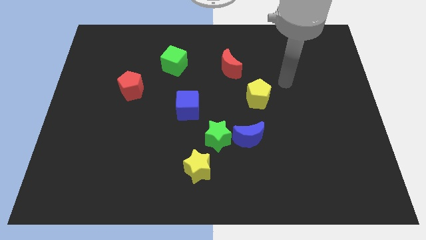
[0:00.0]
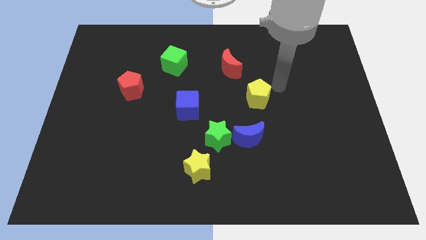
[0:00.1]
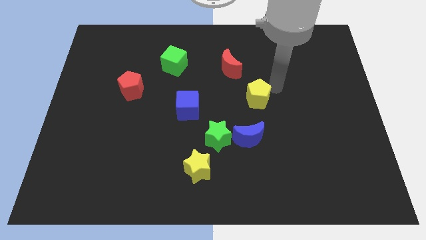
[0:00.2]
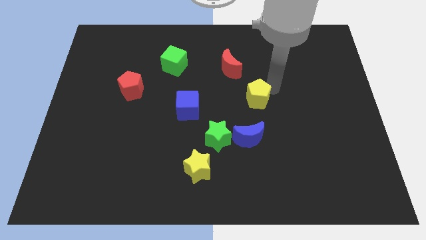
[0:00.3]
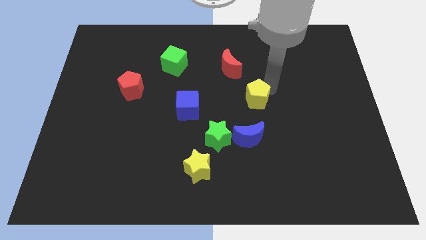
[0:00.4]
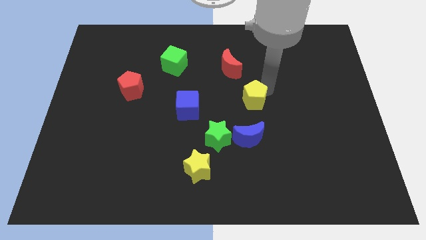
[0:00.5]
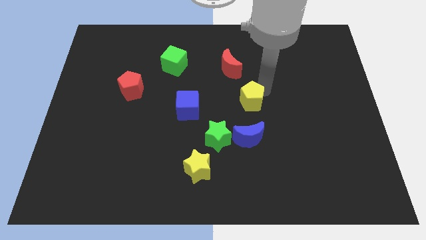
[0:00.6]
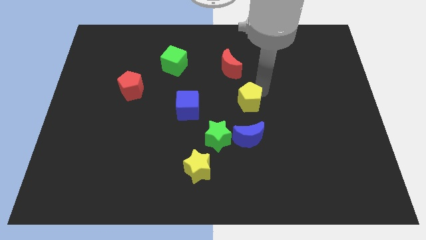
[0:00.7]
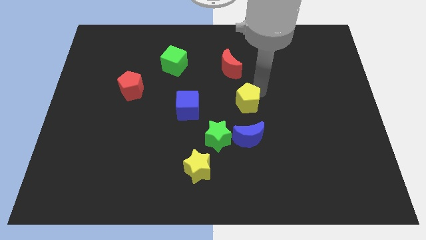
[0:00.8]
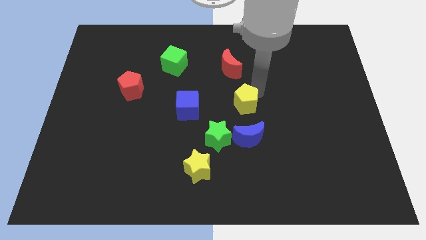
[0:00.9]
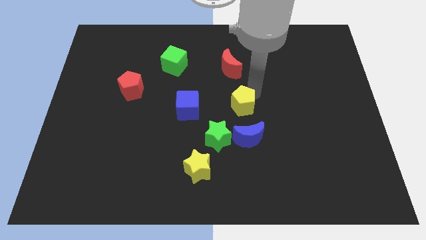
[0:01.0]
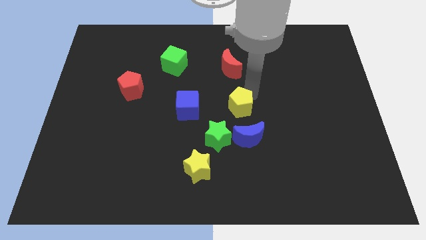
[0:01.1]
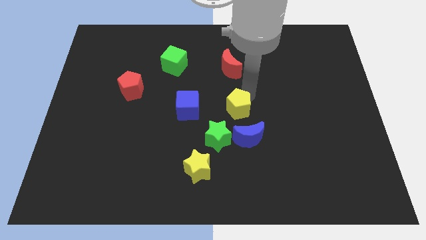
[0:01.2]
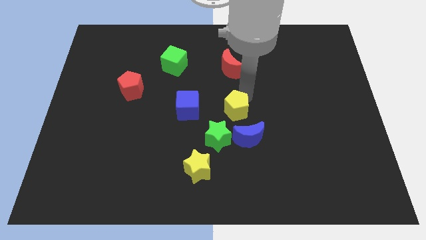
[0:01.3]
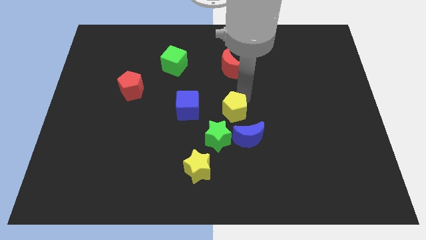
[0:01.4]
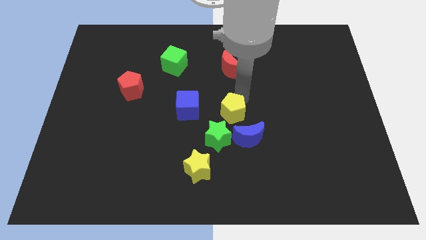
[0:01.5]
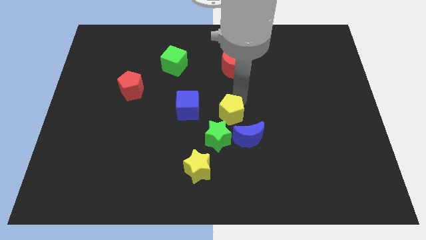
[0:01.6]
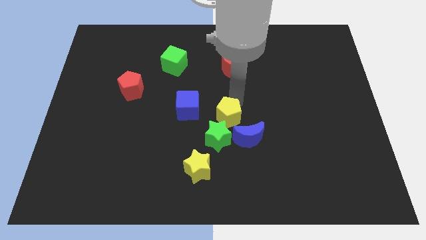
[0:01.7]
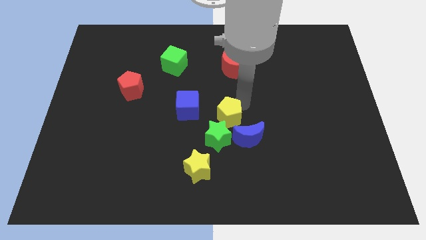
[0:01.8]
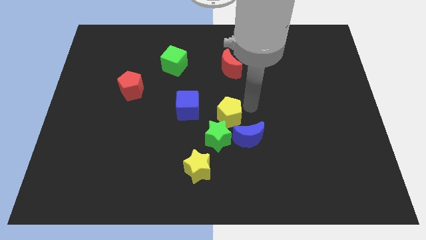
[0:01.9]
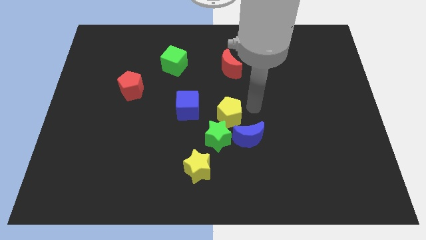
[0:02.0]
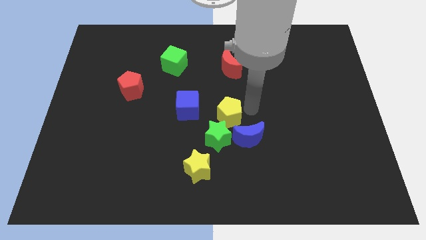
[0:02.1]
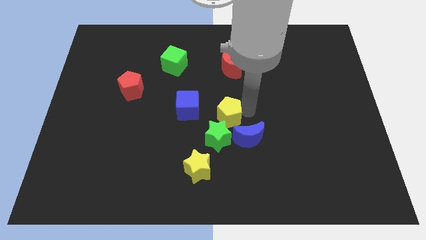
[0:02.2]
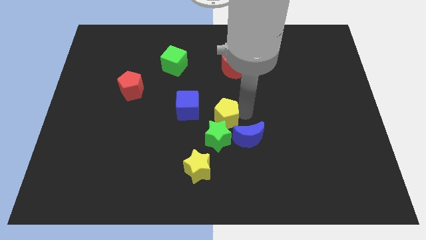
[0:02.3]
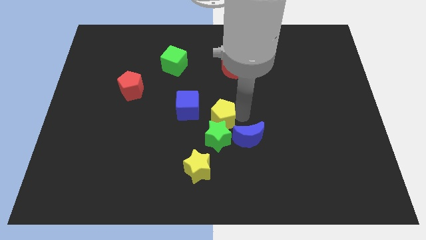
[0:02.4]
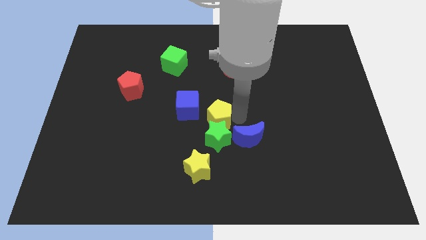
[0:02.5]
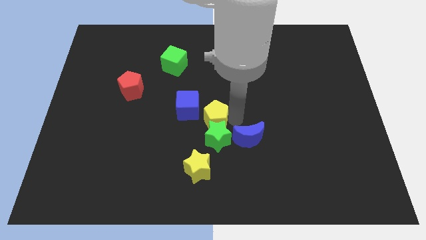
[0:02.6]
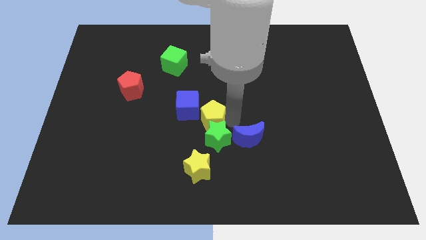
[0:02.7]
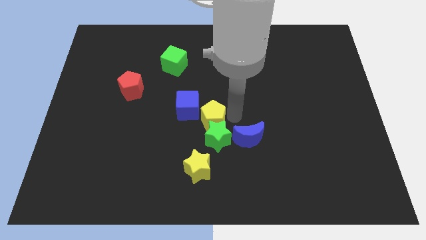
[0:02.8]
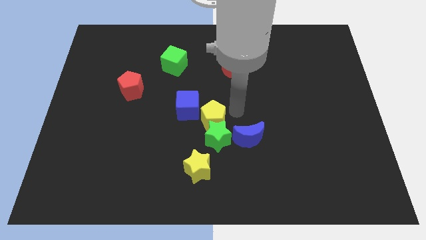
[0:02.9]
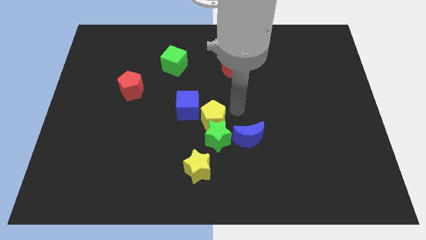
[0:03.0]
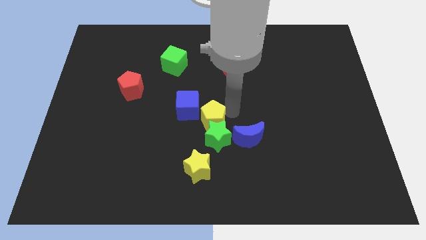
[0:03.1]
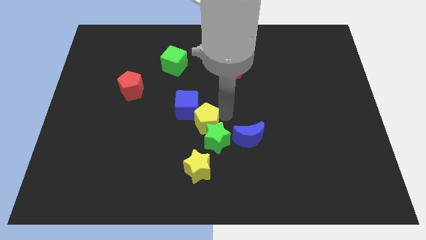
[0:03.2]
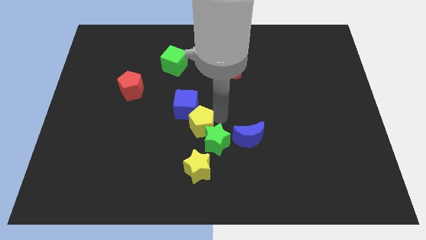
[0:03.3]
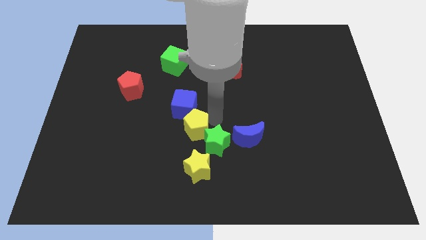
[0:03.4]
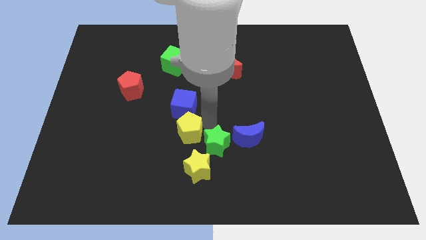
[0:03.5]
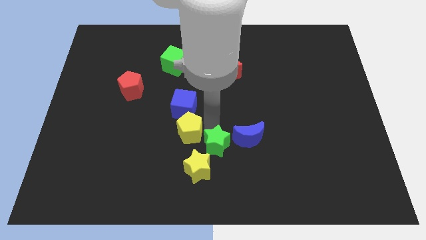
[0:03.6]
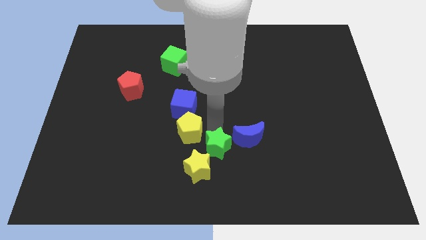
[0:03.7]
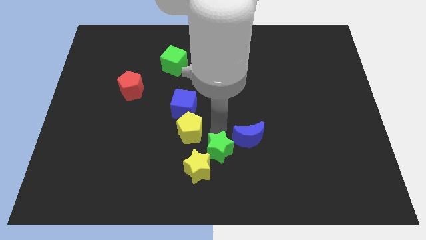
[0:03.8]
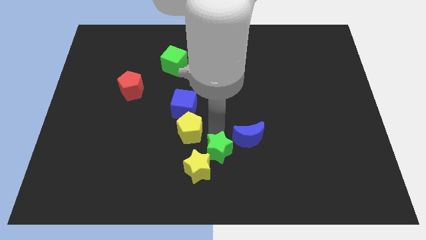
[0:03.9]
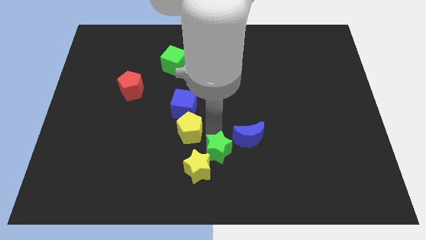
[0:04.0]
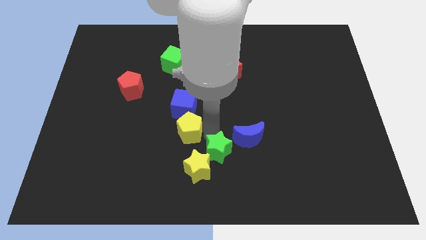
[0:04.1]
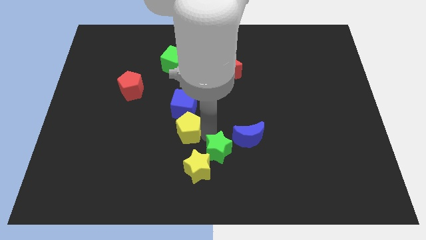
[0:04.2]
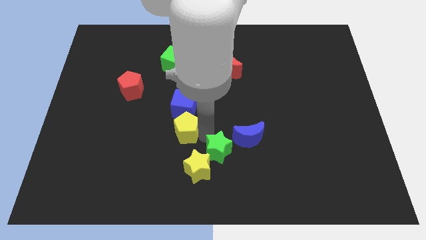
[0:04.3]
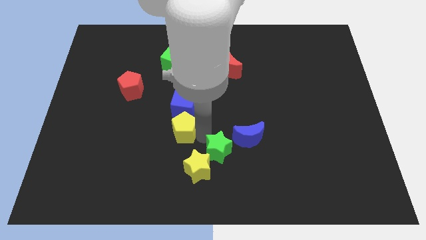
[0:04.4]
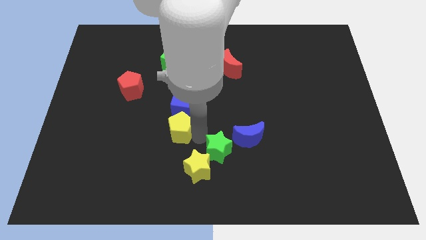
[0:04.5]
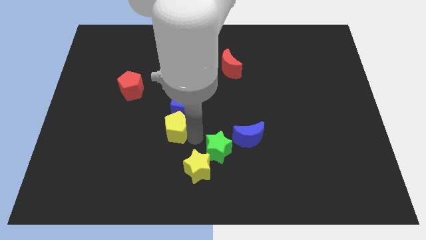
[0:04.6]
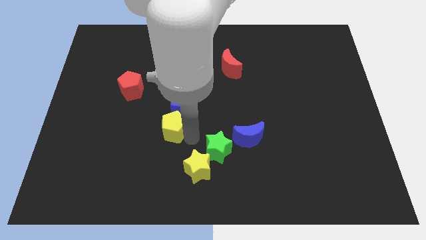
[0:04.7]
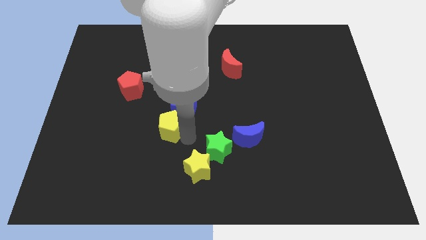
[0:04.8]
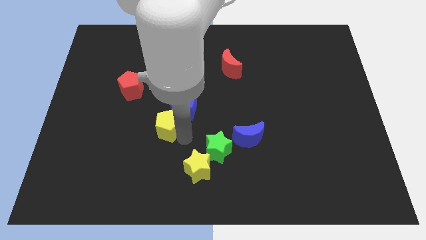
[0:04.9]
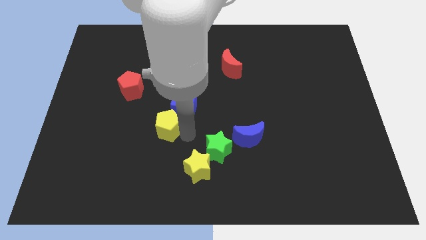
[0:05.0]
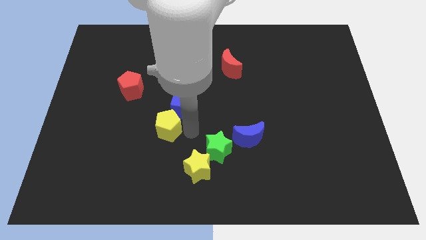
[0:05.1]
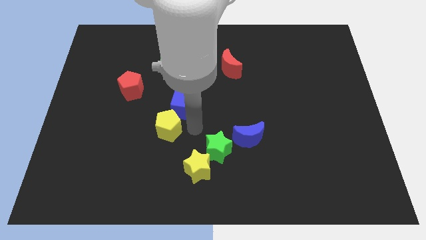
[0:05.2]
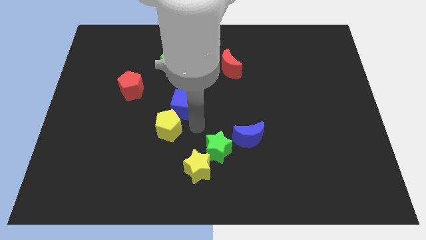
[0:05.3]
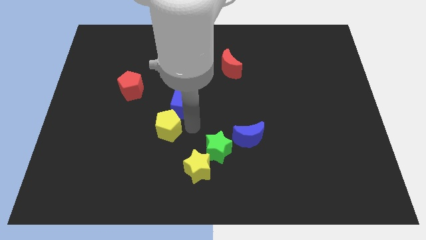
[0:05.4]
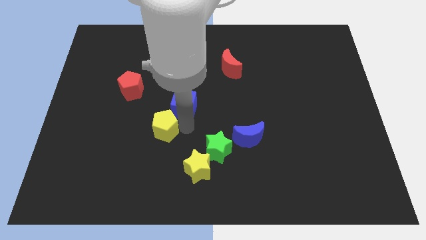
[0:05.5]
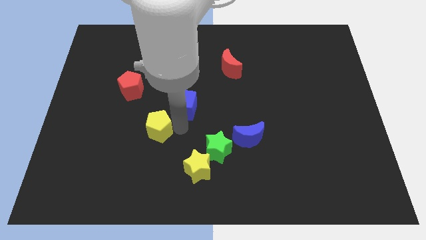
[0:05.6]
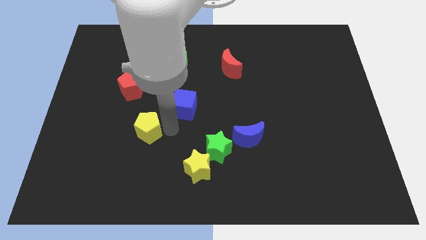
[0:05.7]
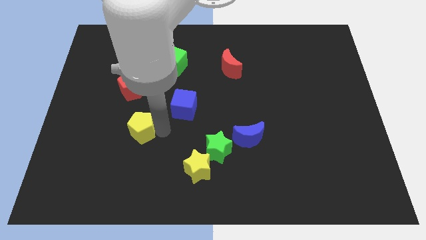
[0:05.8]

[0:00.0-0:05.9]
slide the yellow pentagon to the bottom of the red pentagon

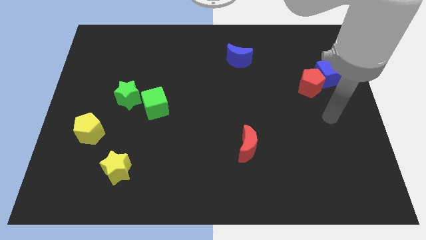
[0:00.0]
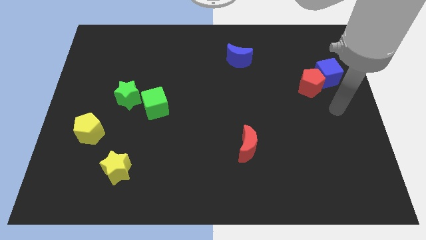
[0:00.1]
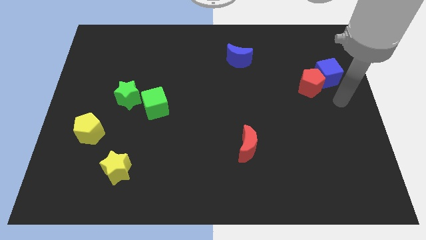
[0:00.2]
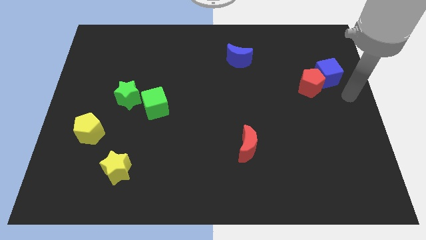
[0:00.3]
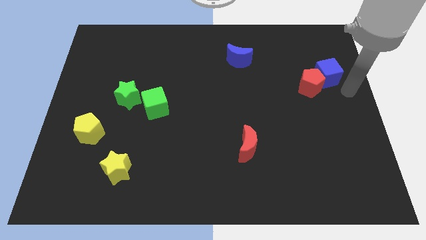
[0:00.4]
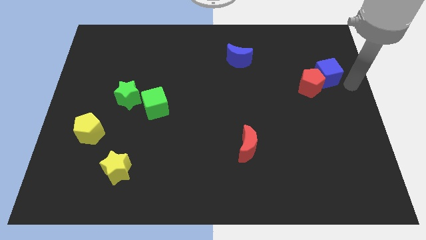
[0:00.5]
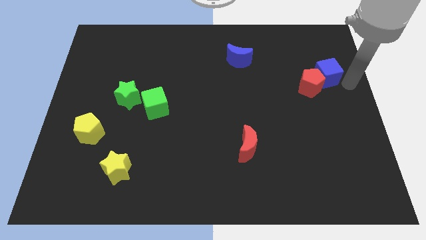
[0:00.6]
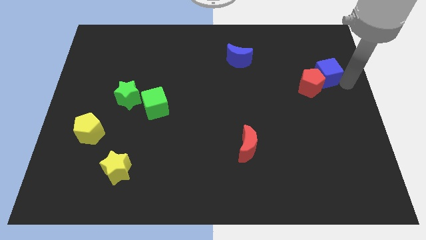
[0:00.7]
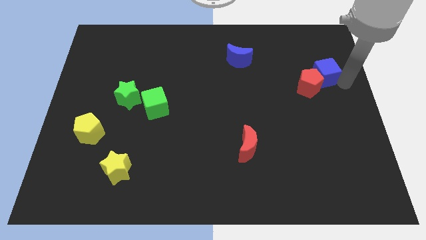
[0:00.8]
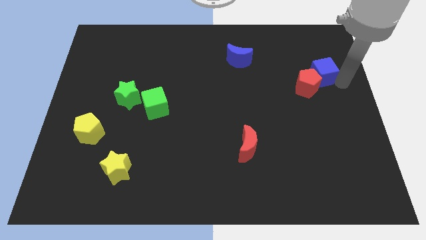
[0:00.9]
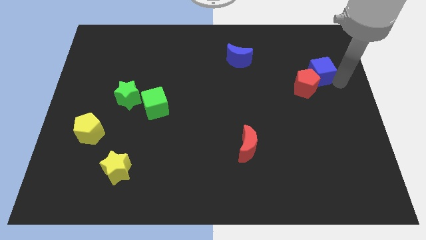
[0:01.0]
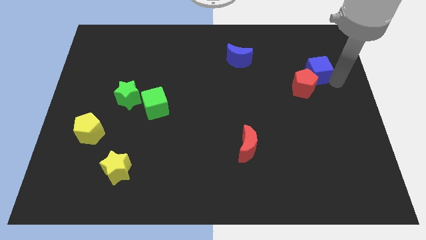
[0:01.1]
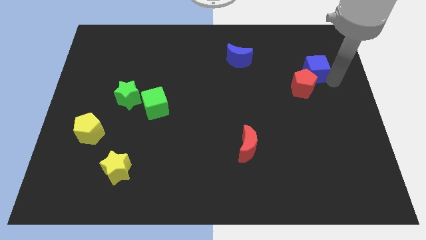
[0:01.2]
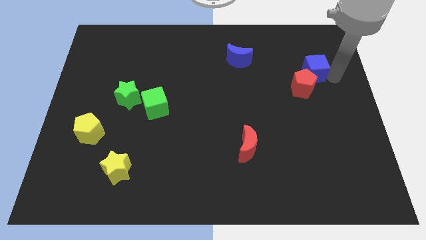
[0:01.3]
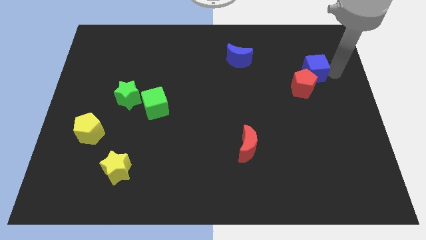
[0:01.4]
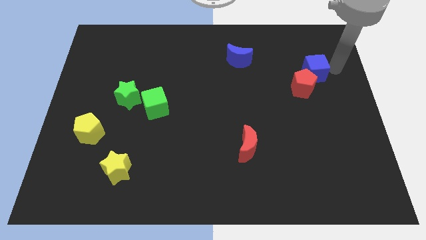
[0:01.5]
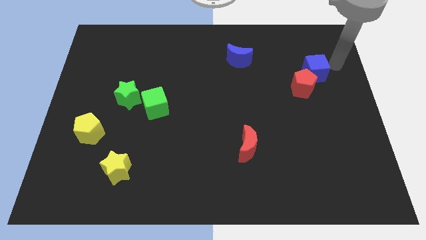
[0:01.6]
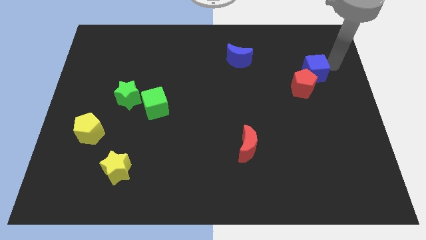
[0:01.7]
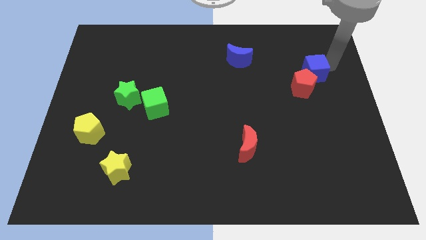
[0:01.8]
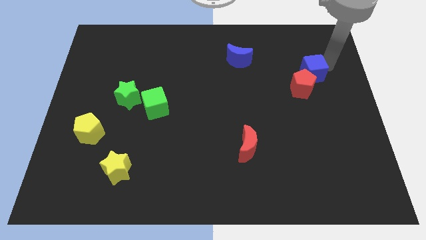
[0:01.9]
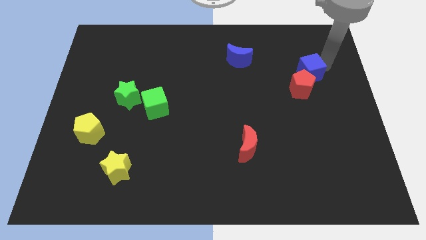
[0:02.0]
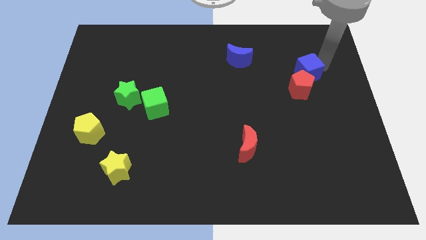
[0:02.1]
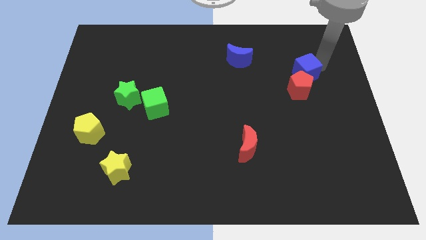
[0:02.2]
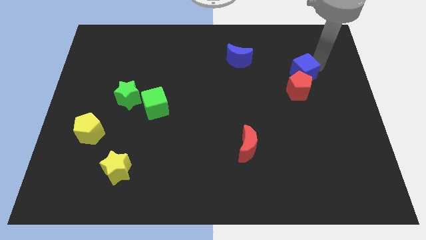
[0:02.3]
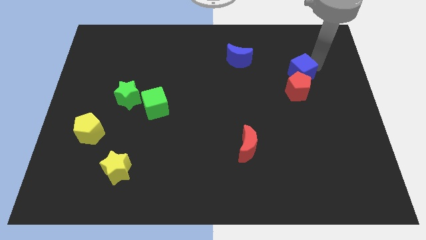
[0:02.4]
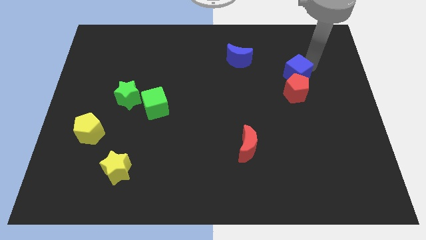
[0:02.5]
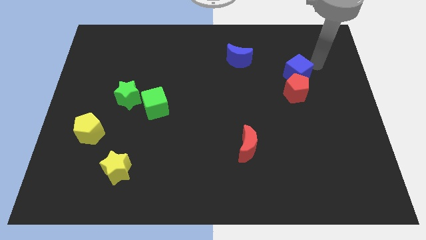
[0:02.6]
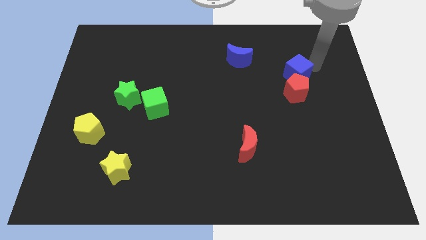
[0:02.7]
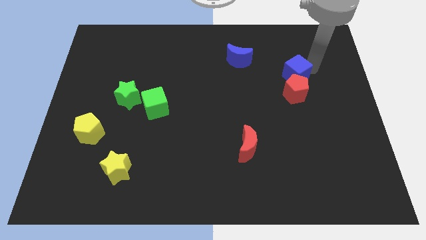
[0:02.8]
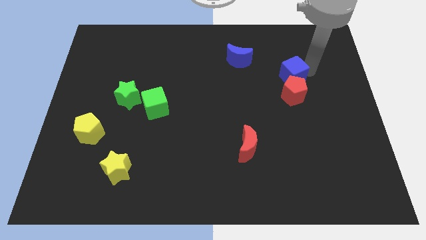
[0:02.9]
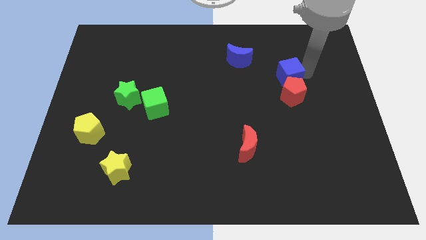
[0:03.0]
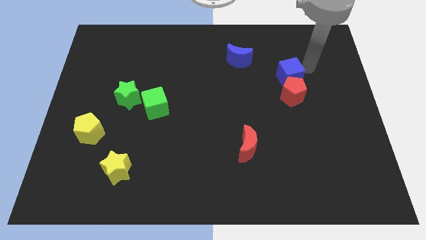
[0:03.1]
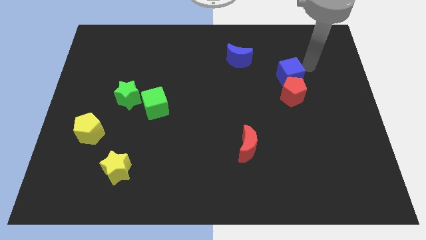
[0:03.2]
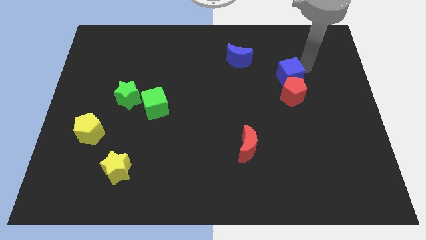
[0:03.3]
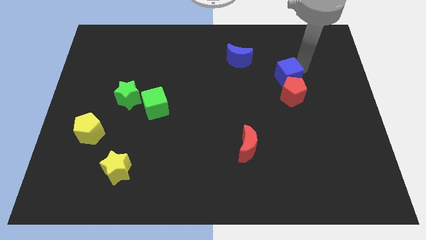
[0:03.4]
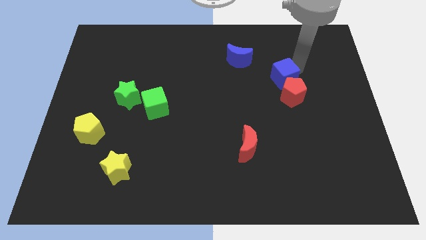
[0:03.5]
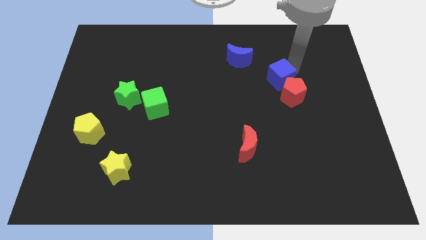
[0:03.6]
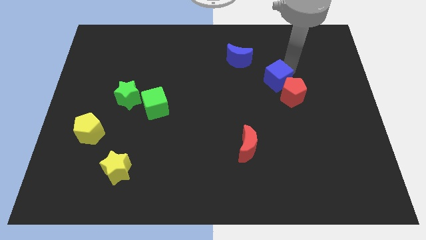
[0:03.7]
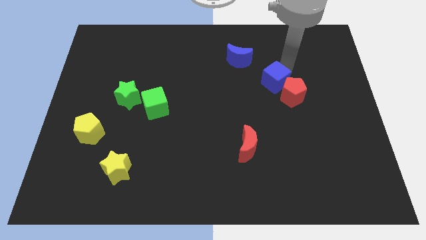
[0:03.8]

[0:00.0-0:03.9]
move the blue cube just left of the red pentagon
